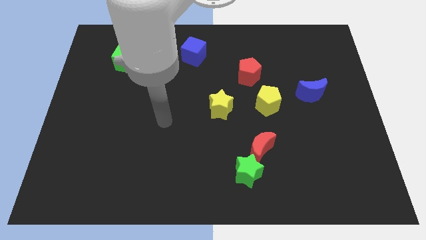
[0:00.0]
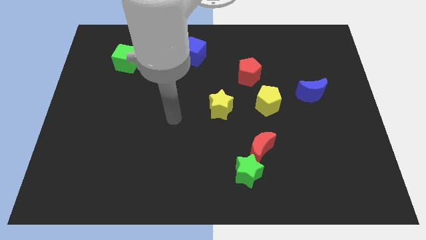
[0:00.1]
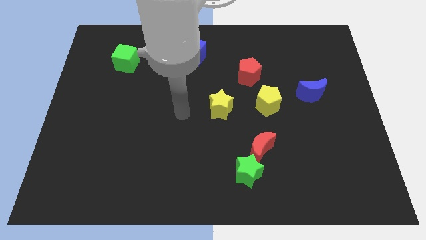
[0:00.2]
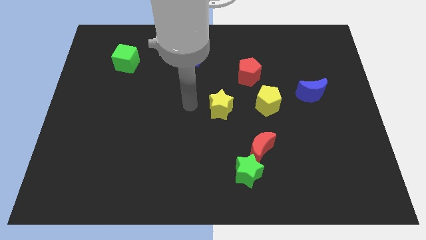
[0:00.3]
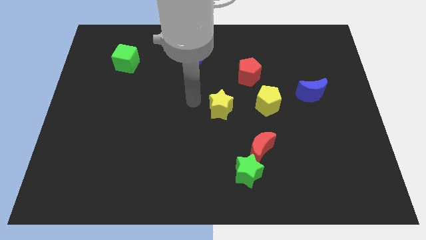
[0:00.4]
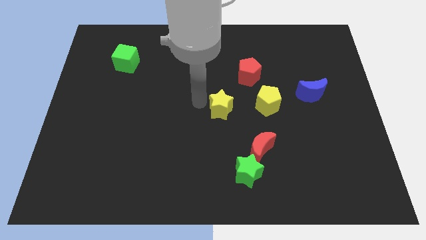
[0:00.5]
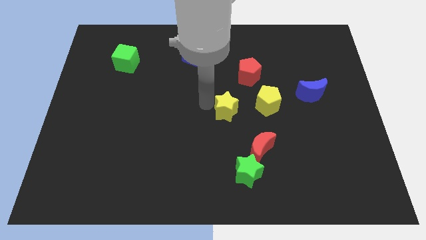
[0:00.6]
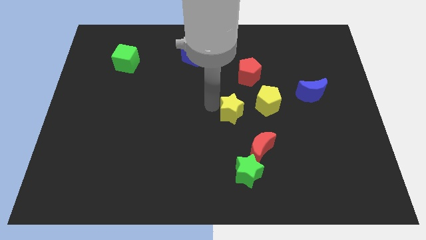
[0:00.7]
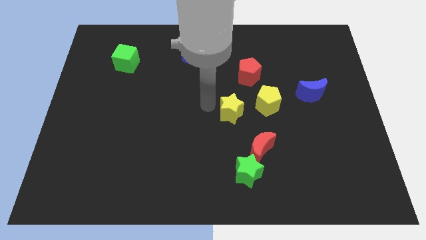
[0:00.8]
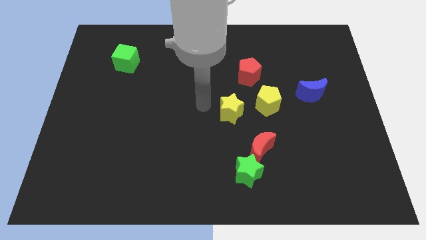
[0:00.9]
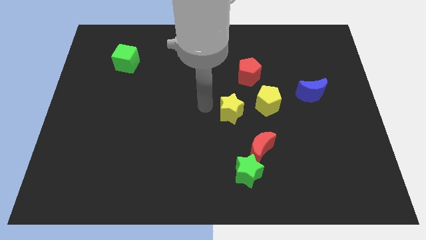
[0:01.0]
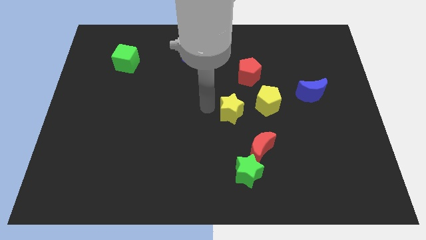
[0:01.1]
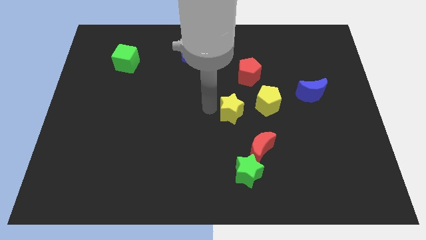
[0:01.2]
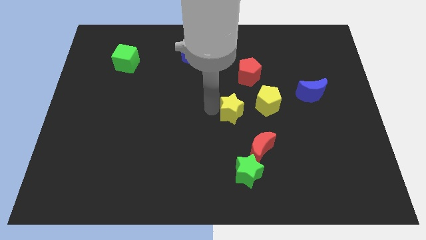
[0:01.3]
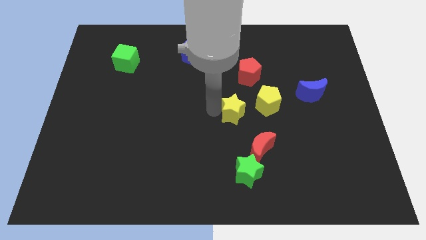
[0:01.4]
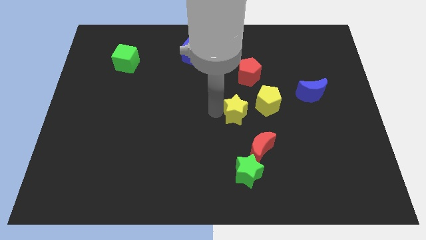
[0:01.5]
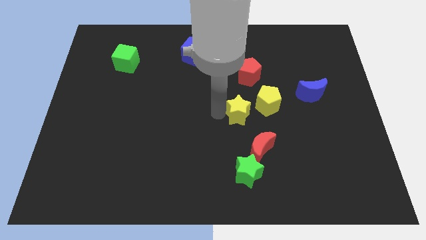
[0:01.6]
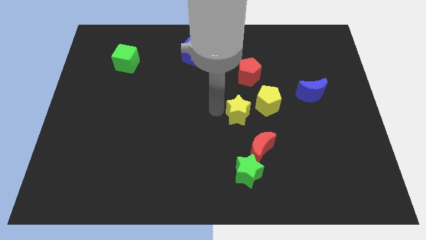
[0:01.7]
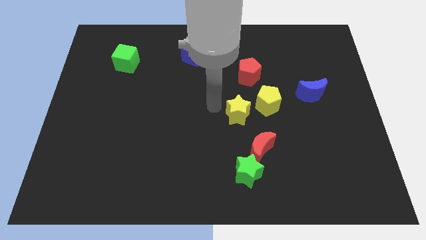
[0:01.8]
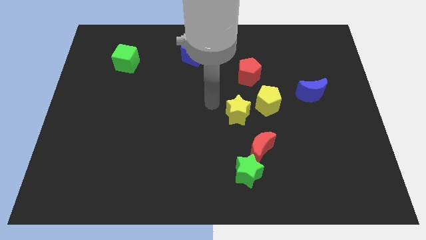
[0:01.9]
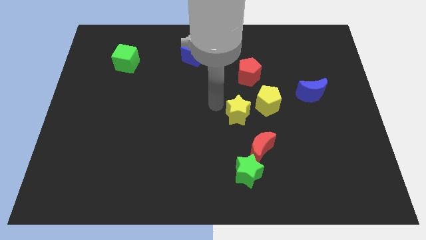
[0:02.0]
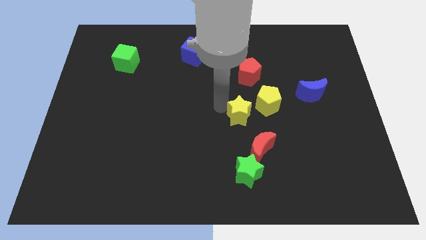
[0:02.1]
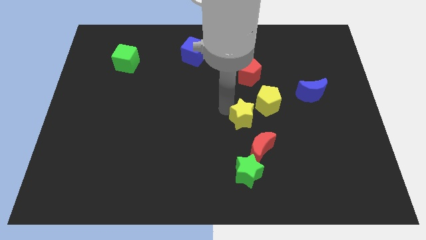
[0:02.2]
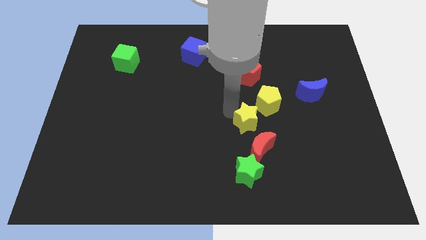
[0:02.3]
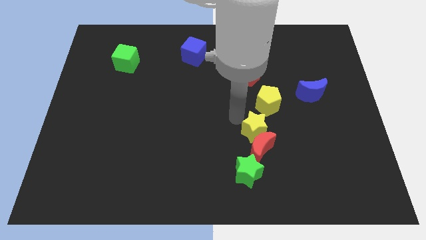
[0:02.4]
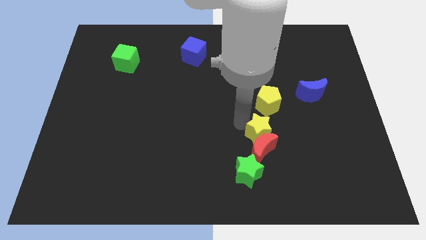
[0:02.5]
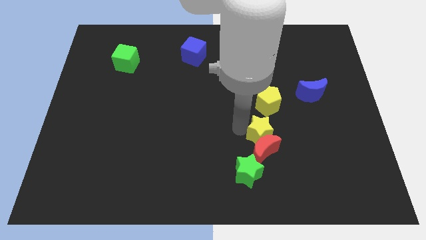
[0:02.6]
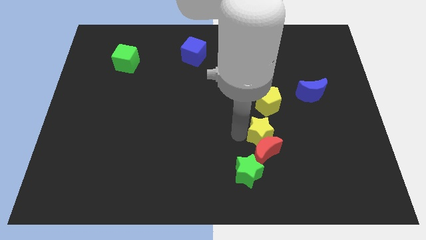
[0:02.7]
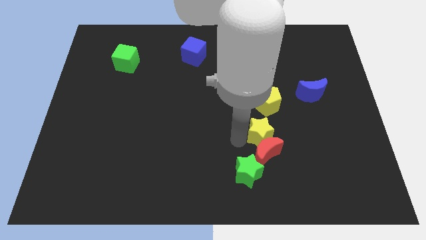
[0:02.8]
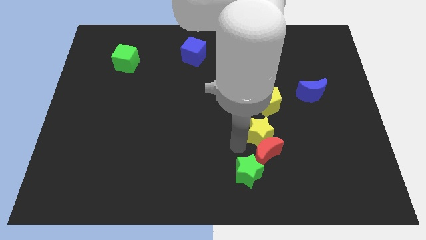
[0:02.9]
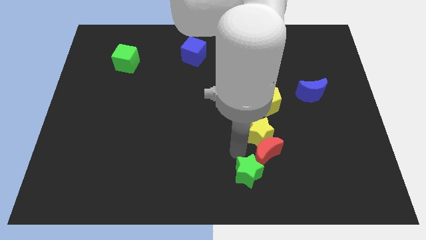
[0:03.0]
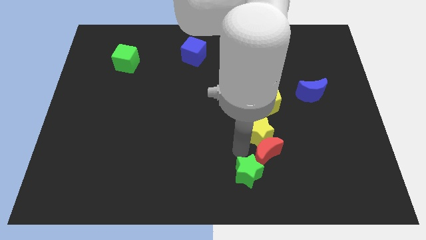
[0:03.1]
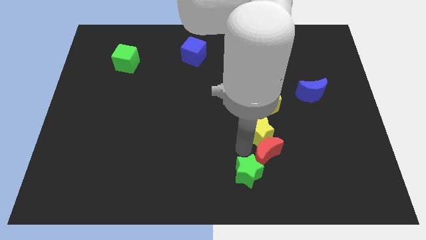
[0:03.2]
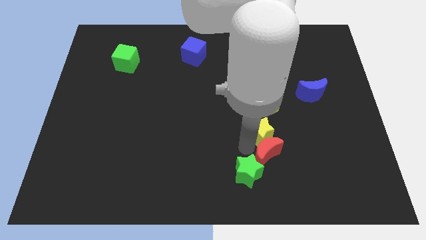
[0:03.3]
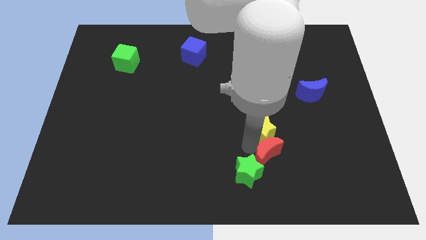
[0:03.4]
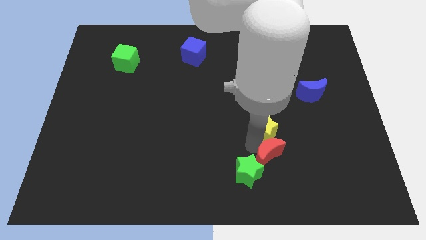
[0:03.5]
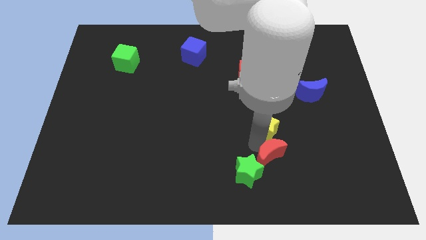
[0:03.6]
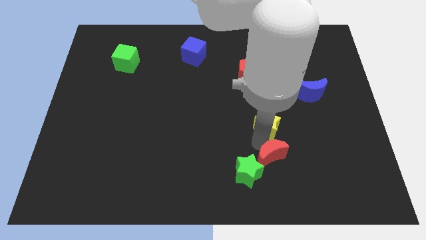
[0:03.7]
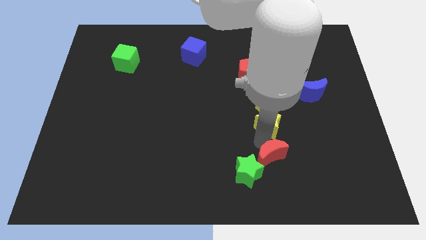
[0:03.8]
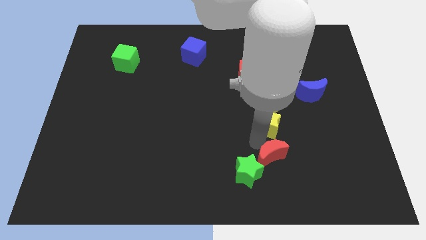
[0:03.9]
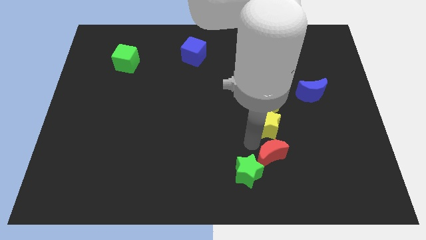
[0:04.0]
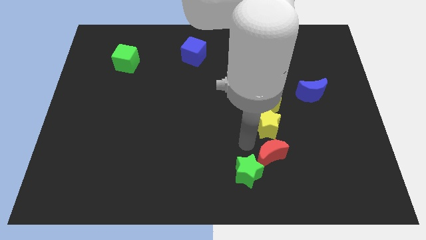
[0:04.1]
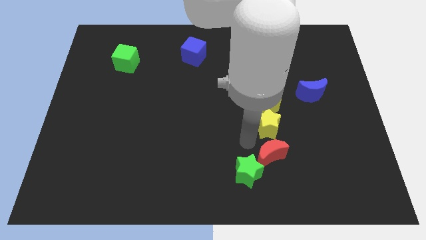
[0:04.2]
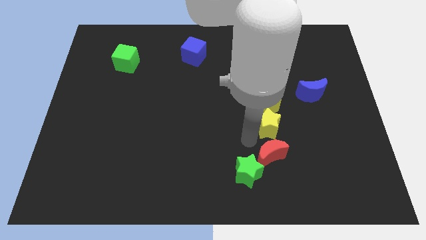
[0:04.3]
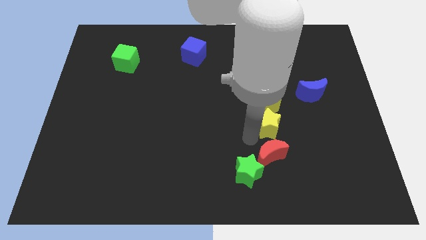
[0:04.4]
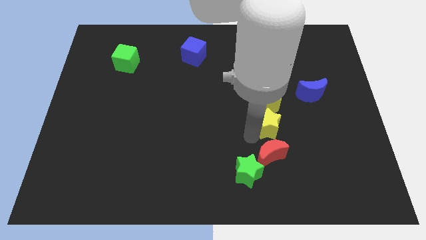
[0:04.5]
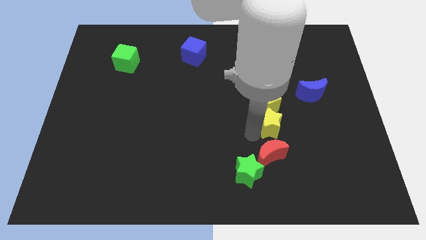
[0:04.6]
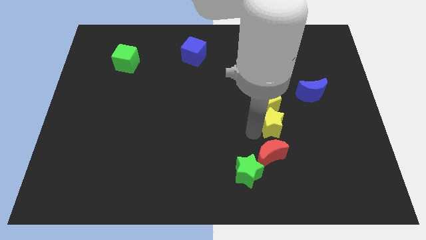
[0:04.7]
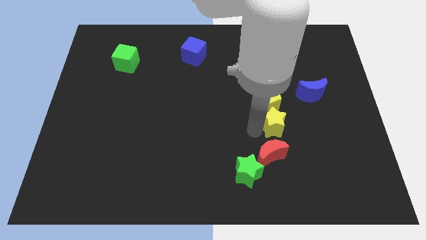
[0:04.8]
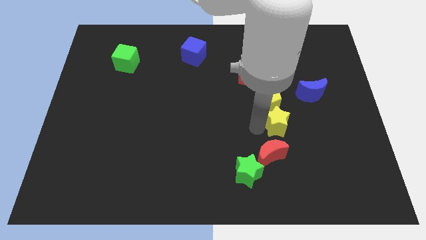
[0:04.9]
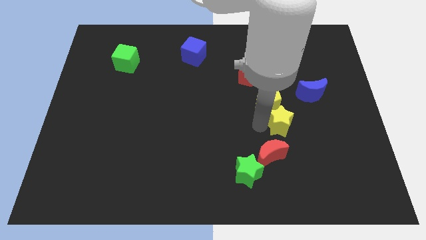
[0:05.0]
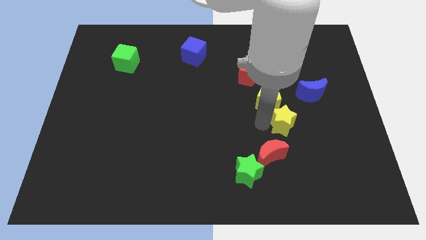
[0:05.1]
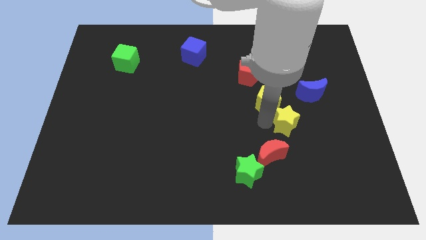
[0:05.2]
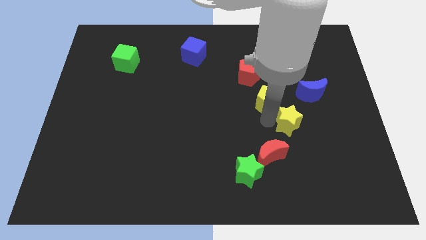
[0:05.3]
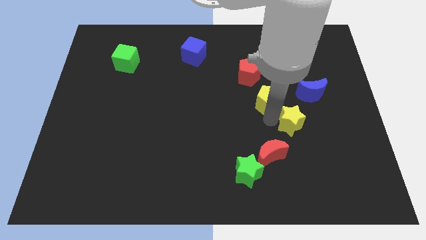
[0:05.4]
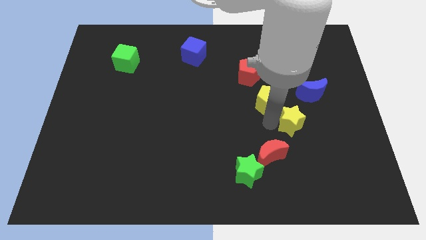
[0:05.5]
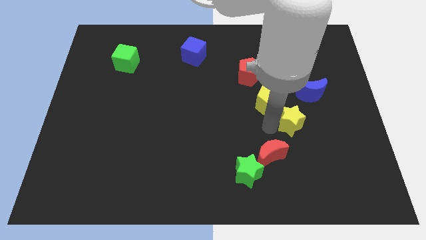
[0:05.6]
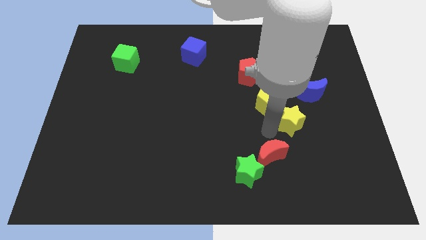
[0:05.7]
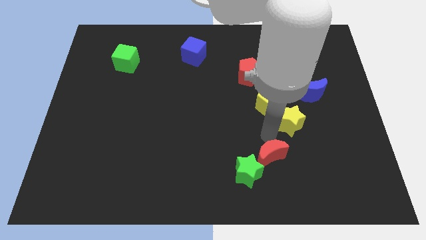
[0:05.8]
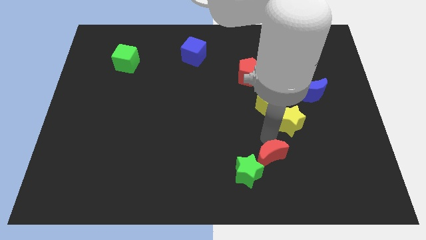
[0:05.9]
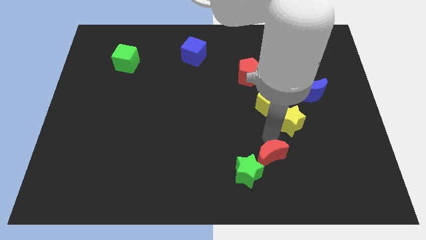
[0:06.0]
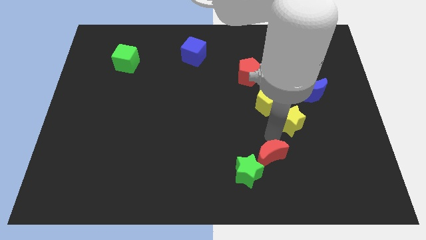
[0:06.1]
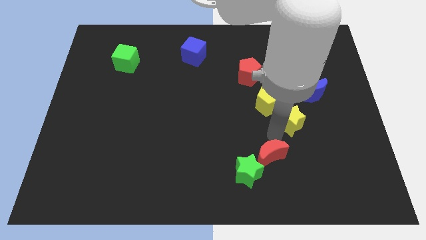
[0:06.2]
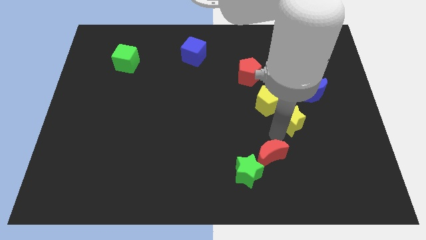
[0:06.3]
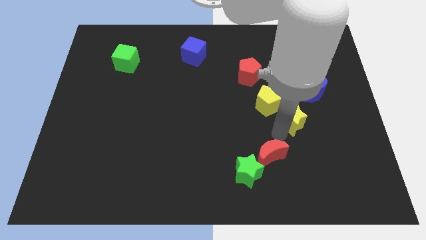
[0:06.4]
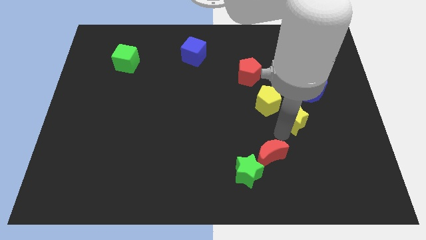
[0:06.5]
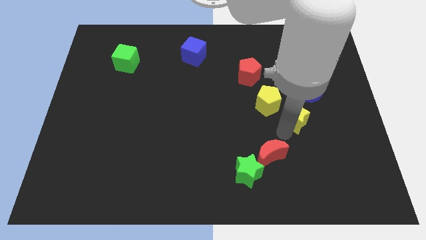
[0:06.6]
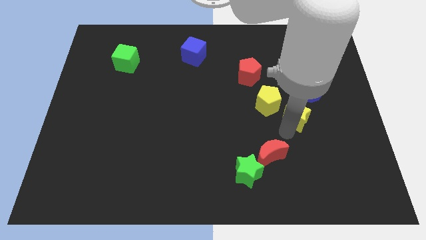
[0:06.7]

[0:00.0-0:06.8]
slide the yellow star to the right side of the yellow pentagon
